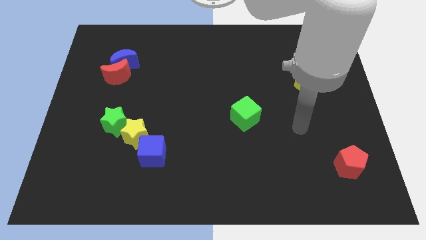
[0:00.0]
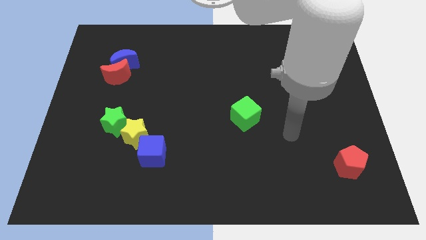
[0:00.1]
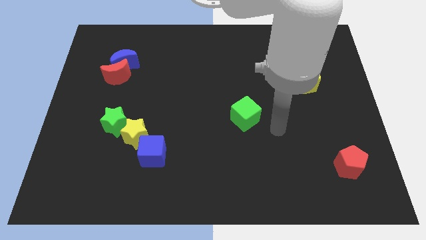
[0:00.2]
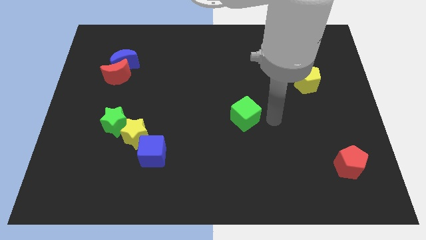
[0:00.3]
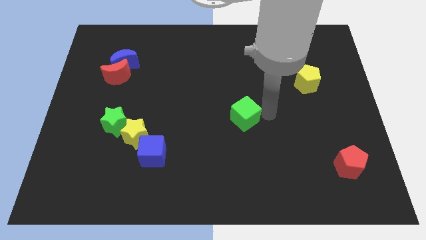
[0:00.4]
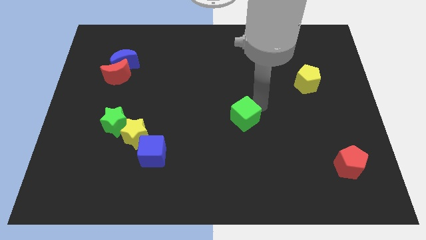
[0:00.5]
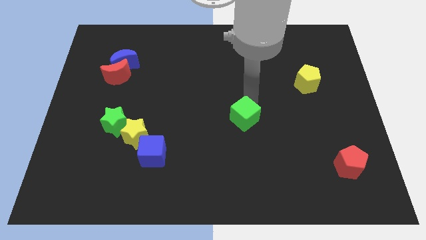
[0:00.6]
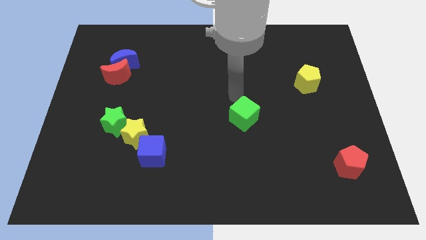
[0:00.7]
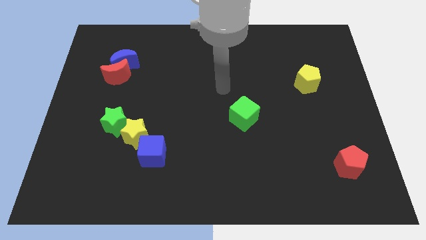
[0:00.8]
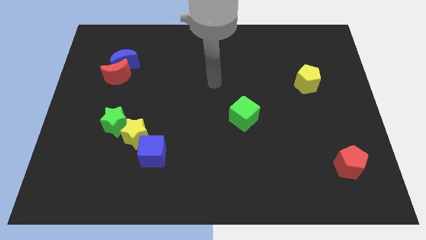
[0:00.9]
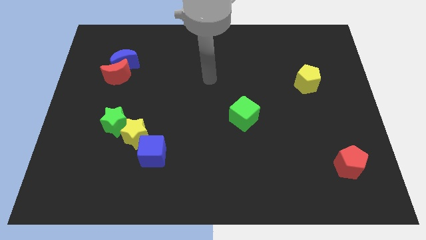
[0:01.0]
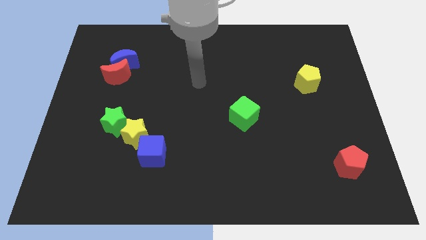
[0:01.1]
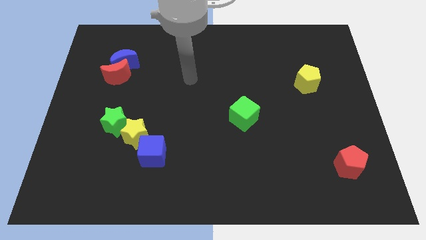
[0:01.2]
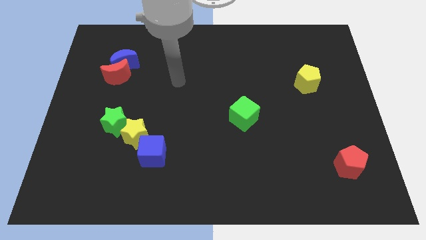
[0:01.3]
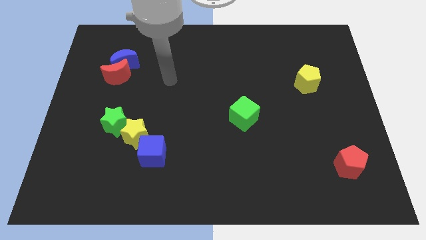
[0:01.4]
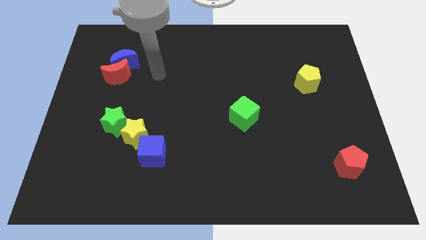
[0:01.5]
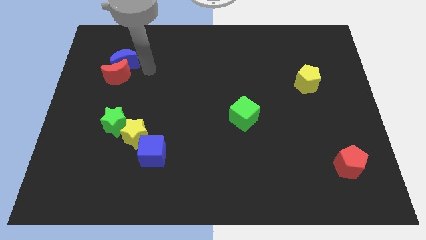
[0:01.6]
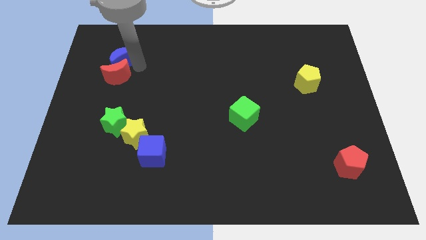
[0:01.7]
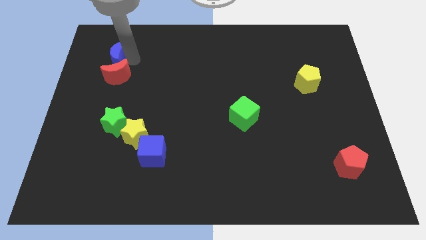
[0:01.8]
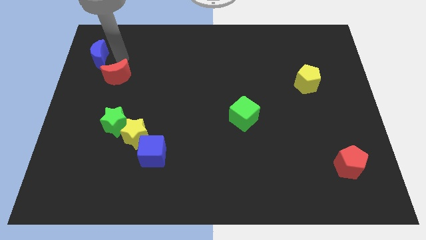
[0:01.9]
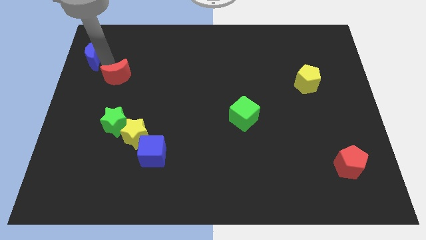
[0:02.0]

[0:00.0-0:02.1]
pull the red moon apart from the blue moon

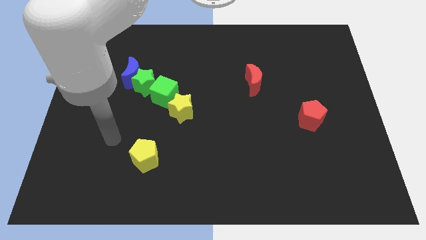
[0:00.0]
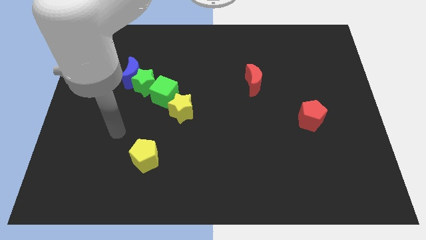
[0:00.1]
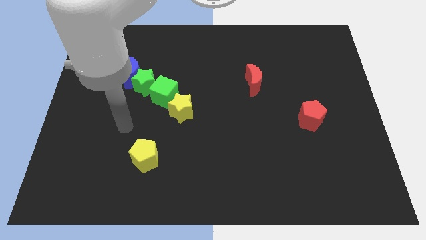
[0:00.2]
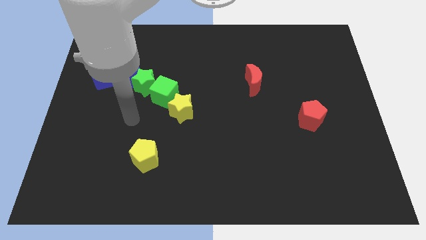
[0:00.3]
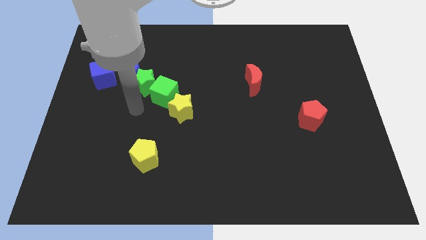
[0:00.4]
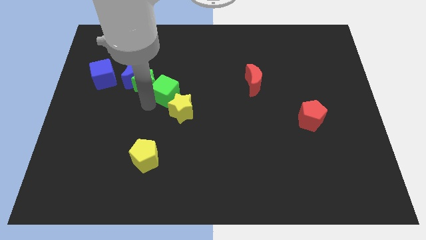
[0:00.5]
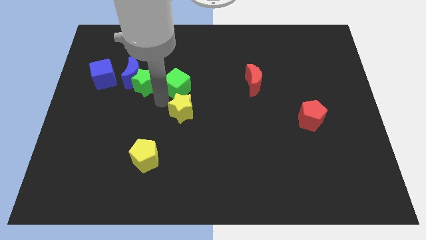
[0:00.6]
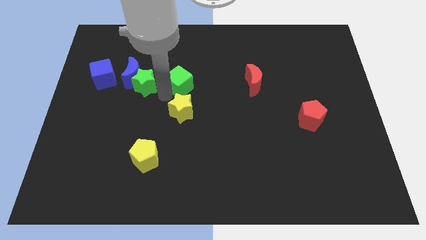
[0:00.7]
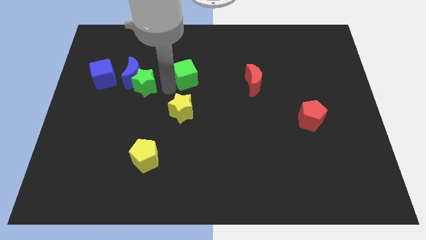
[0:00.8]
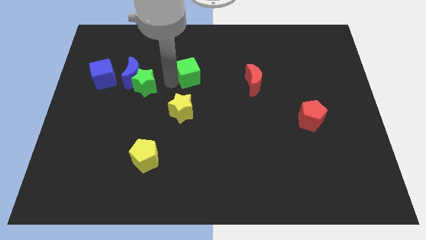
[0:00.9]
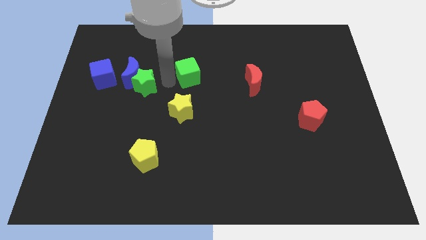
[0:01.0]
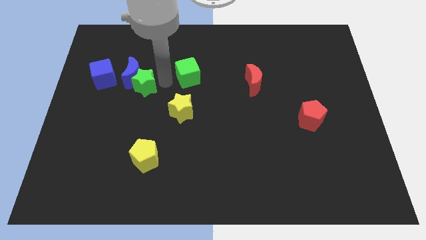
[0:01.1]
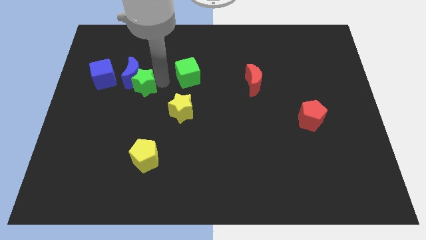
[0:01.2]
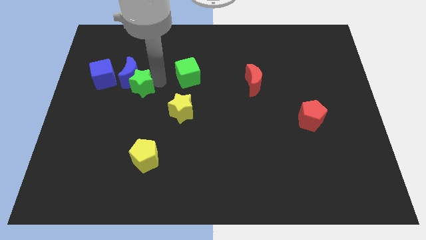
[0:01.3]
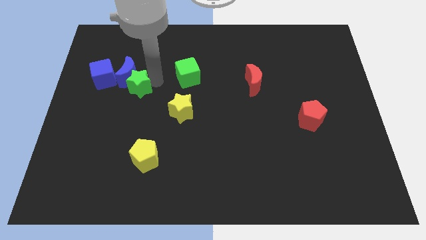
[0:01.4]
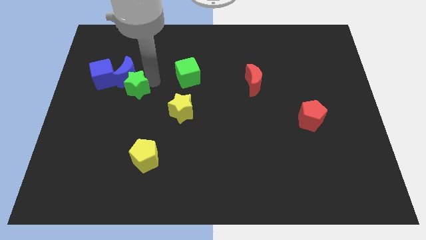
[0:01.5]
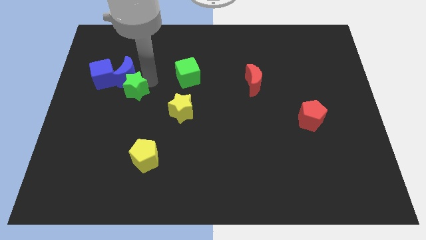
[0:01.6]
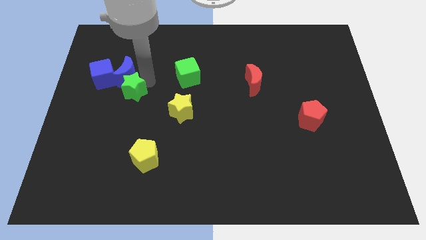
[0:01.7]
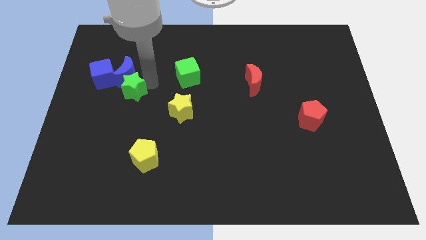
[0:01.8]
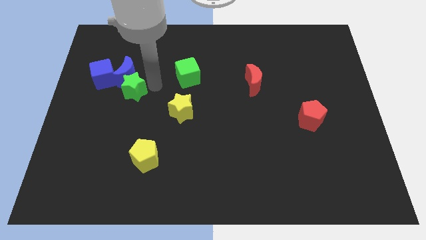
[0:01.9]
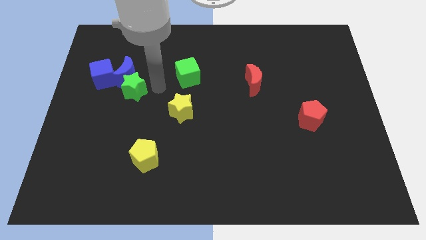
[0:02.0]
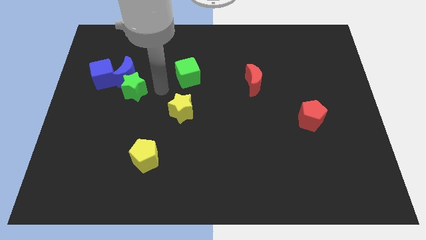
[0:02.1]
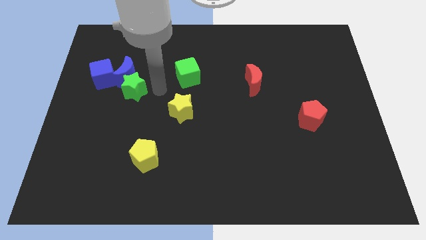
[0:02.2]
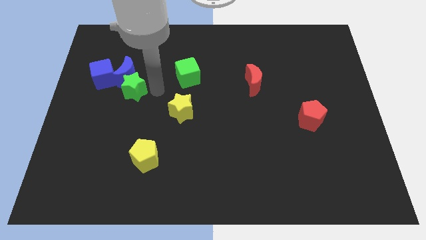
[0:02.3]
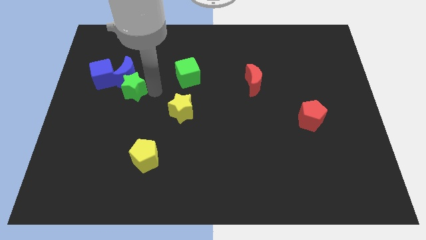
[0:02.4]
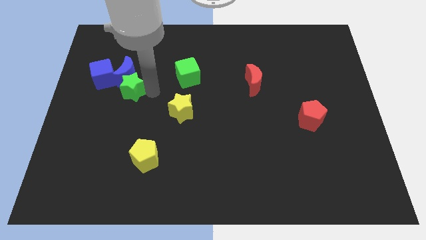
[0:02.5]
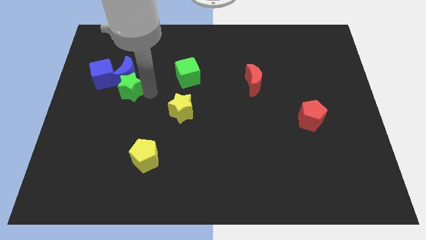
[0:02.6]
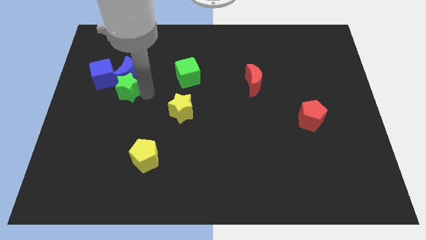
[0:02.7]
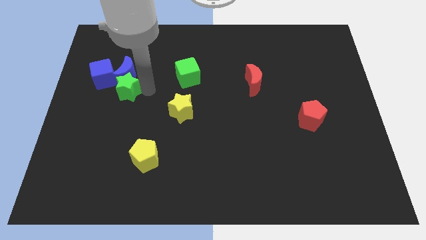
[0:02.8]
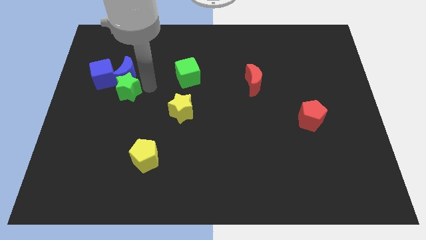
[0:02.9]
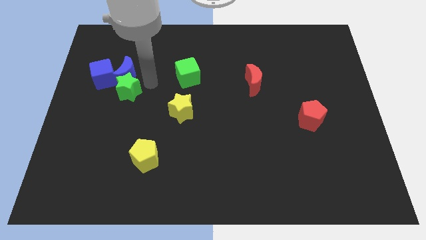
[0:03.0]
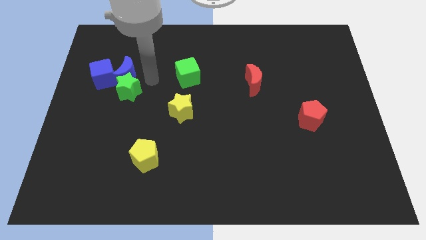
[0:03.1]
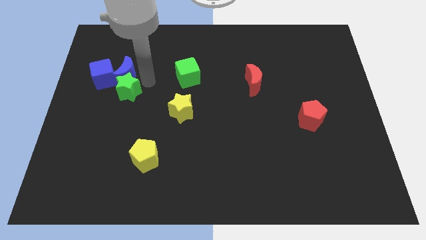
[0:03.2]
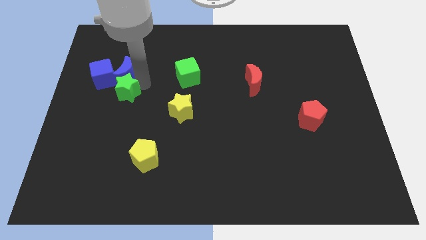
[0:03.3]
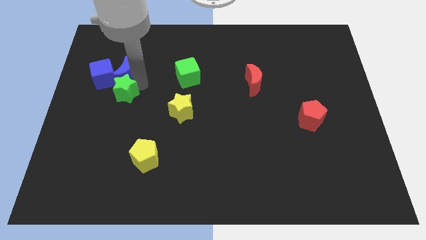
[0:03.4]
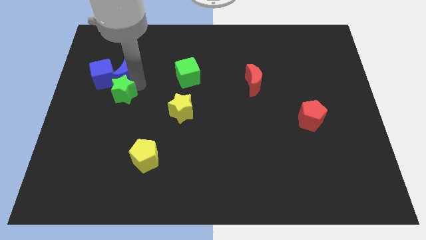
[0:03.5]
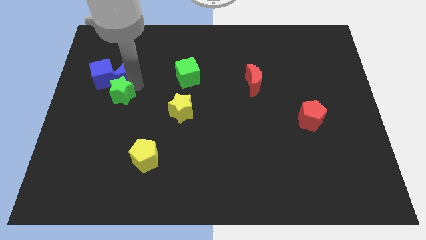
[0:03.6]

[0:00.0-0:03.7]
move the green star away from the blue moon and green cube

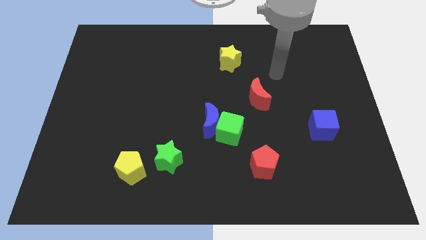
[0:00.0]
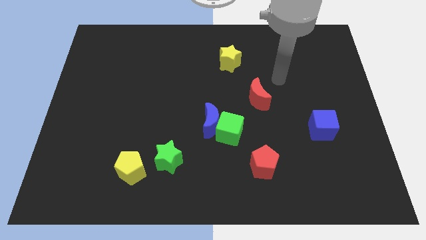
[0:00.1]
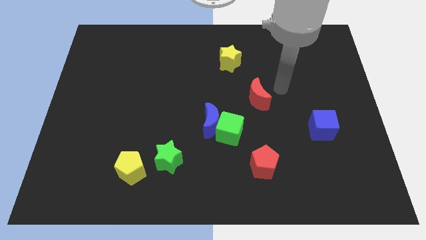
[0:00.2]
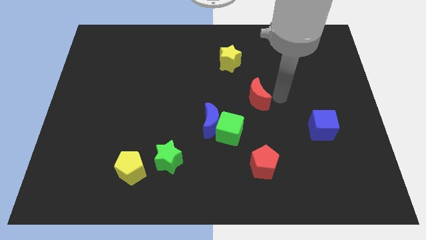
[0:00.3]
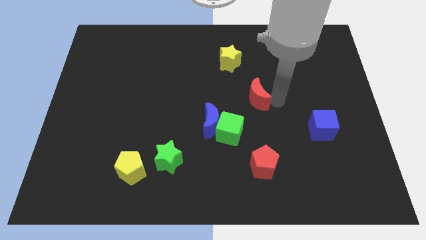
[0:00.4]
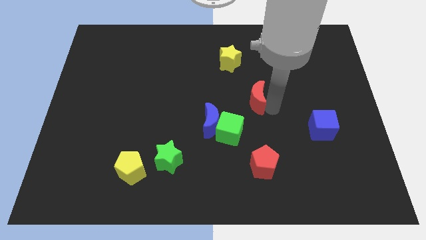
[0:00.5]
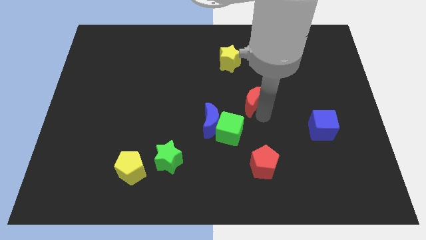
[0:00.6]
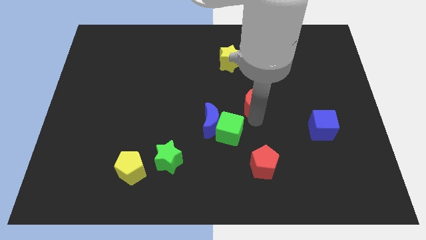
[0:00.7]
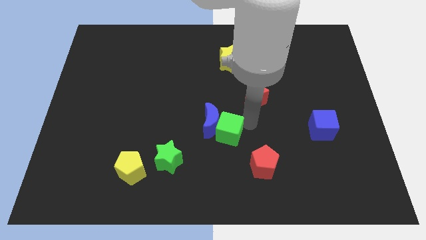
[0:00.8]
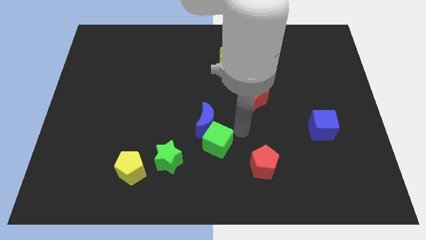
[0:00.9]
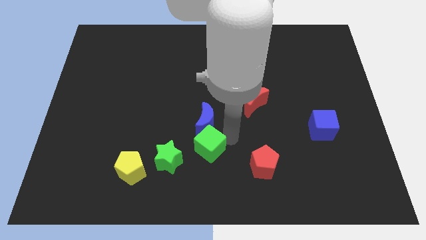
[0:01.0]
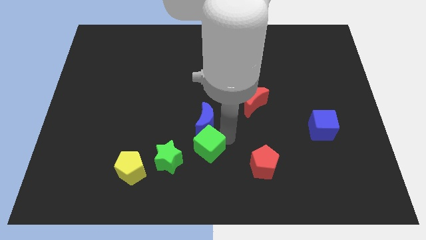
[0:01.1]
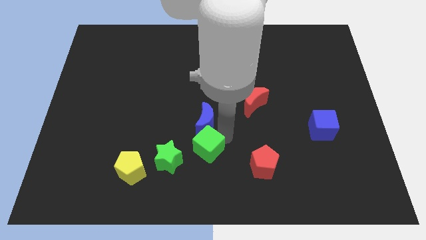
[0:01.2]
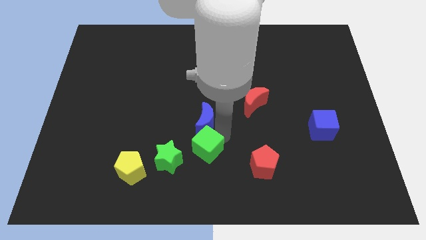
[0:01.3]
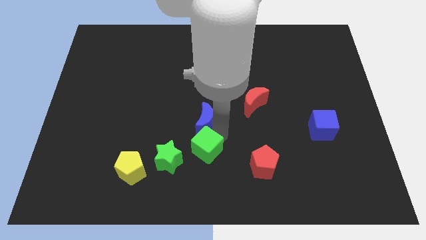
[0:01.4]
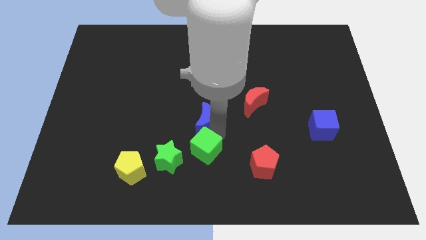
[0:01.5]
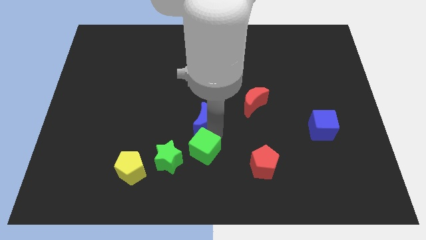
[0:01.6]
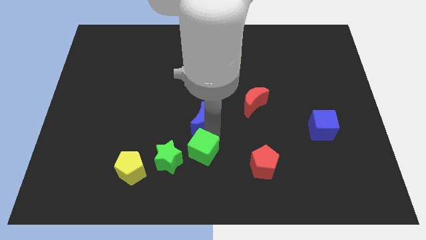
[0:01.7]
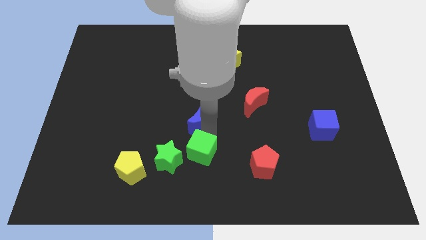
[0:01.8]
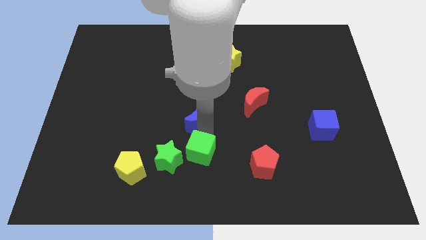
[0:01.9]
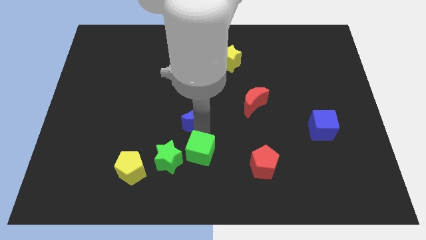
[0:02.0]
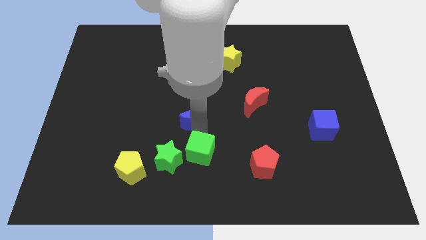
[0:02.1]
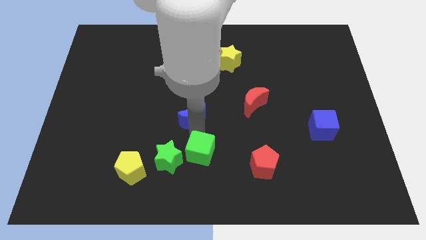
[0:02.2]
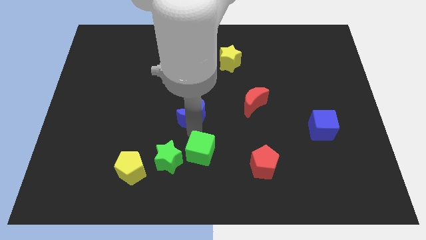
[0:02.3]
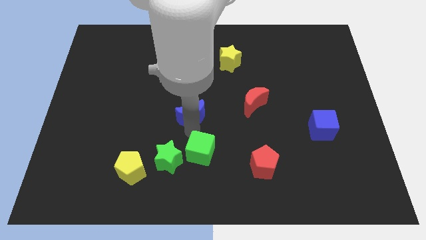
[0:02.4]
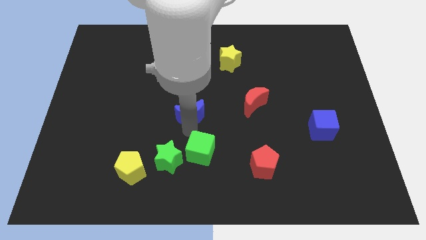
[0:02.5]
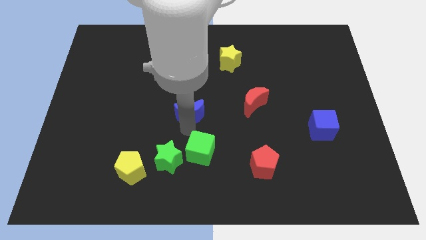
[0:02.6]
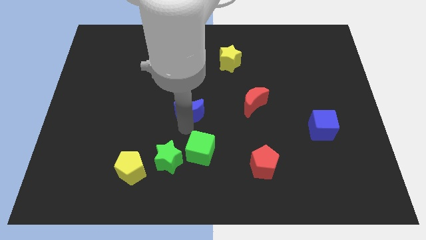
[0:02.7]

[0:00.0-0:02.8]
pull the blue moon apart from the green cube

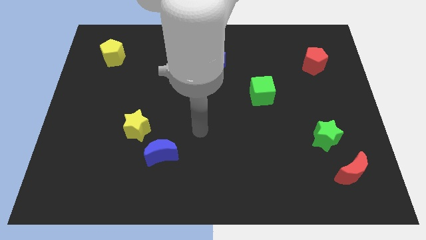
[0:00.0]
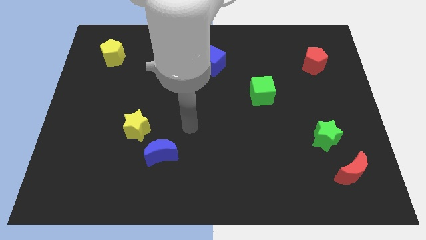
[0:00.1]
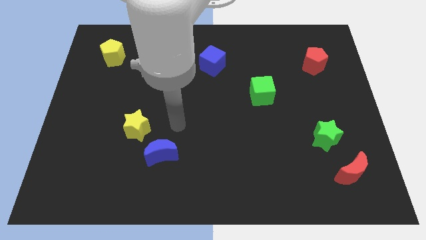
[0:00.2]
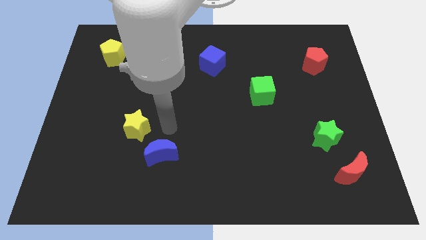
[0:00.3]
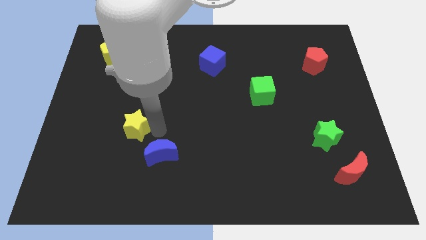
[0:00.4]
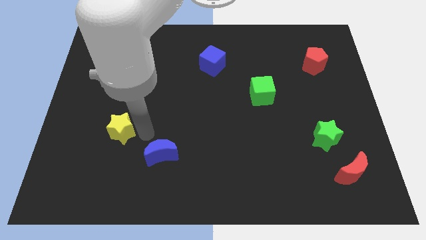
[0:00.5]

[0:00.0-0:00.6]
move the blue moon away from the yellow star

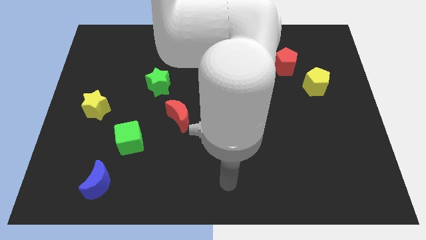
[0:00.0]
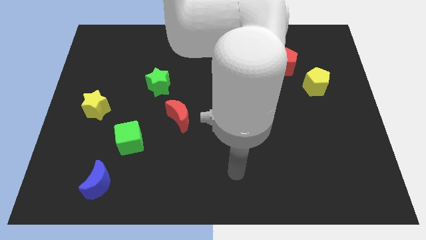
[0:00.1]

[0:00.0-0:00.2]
separate the red pentagon from the yellow pentagon
